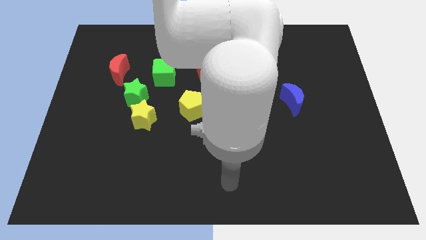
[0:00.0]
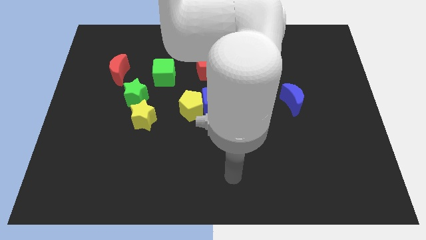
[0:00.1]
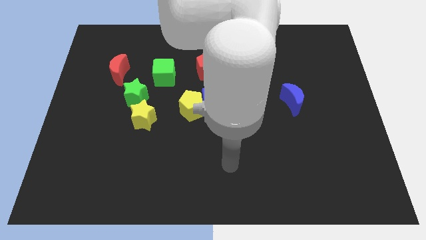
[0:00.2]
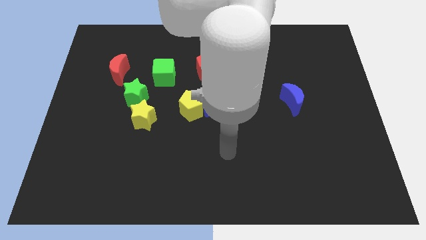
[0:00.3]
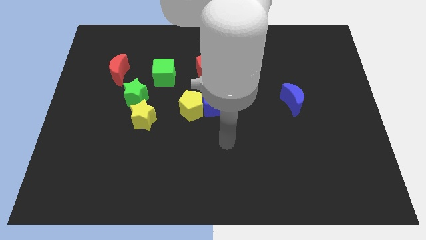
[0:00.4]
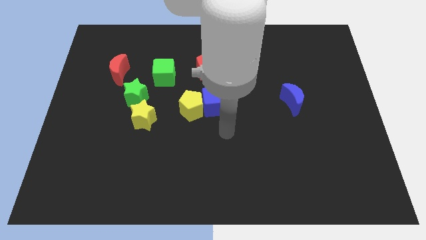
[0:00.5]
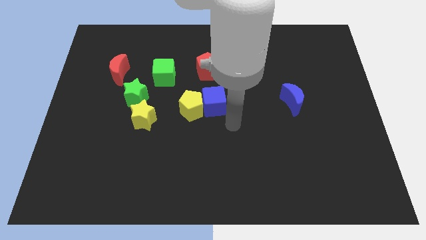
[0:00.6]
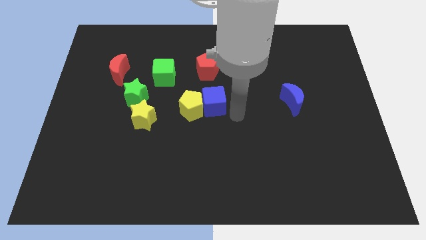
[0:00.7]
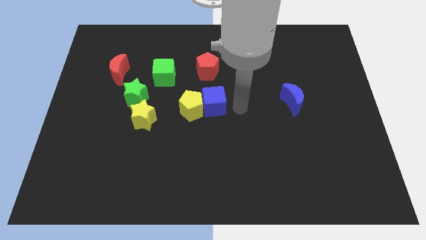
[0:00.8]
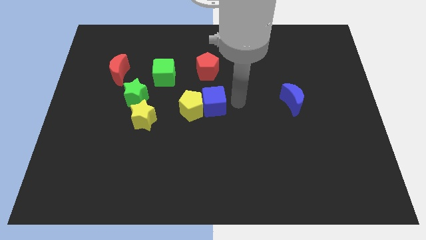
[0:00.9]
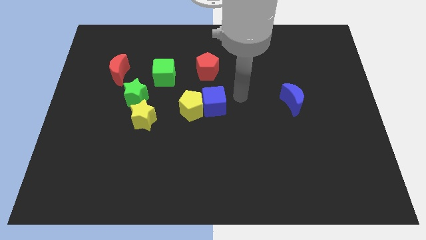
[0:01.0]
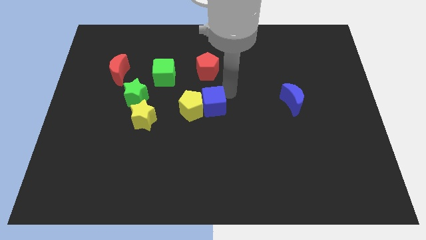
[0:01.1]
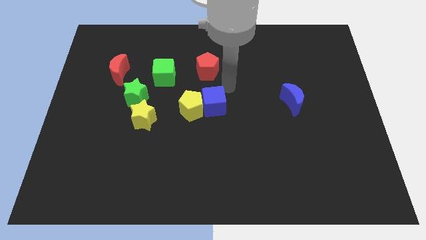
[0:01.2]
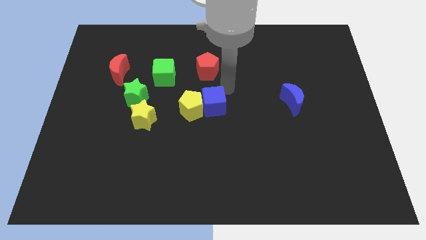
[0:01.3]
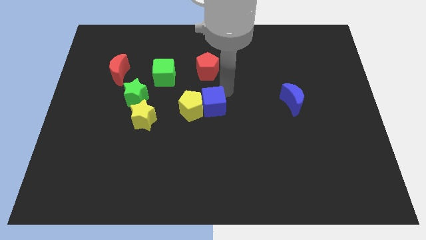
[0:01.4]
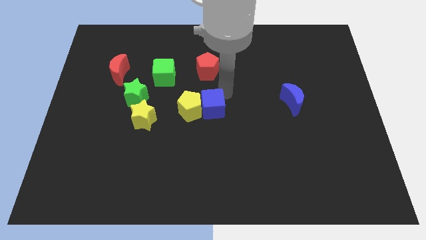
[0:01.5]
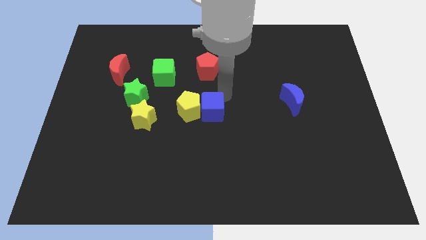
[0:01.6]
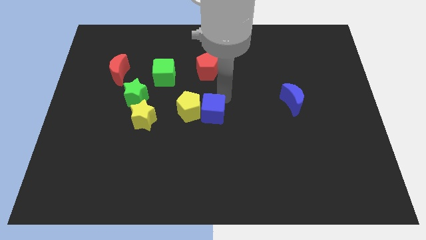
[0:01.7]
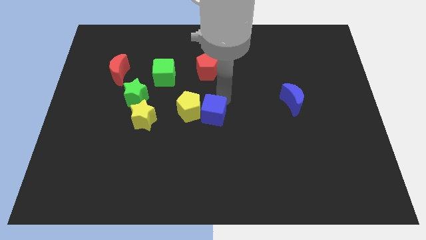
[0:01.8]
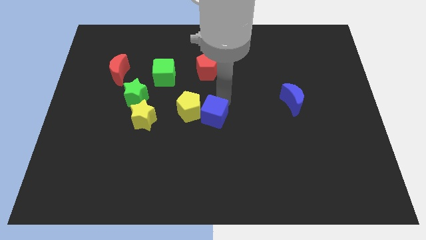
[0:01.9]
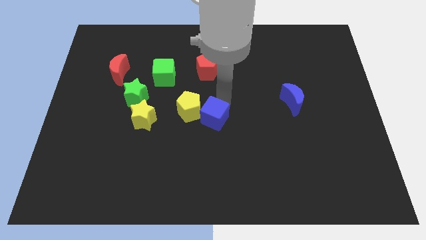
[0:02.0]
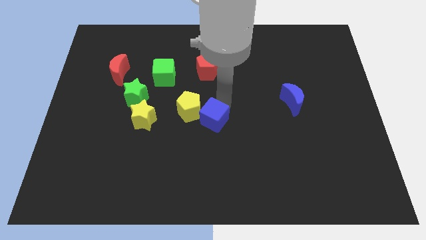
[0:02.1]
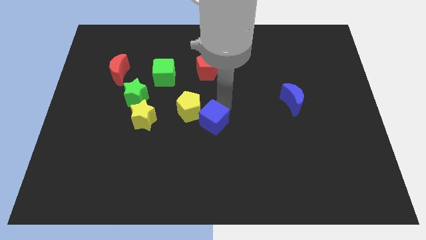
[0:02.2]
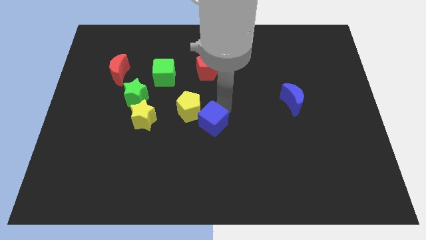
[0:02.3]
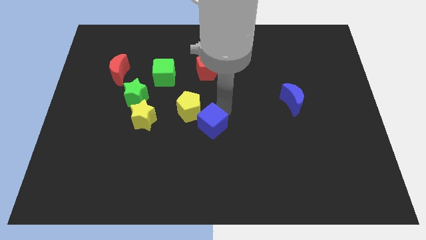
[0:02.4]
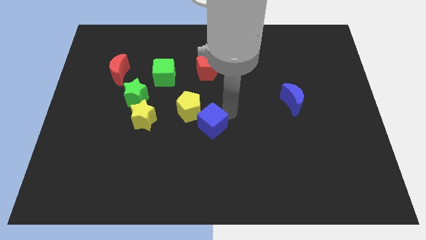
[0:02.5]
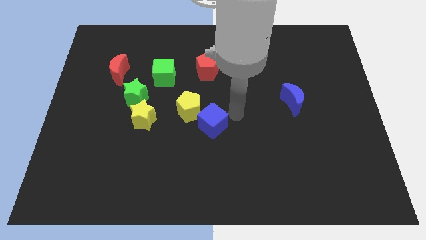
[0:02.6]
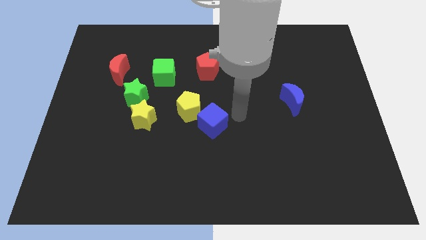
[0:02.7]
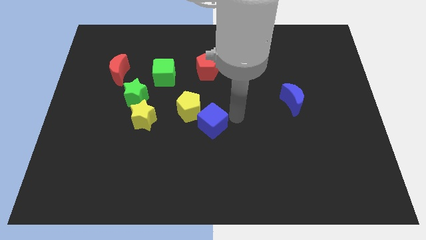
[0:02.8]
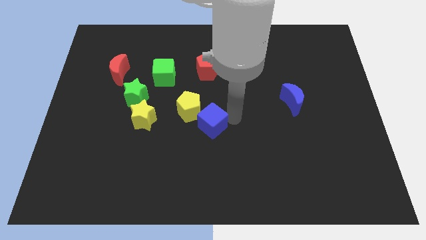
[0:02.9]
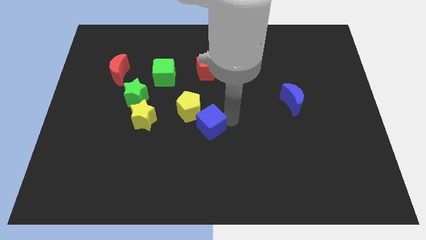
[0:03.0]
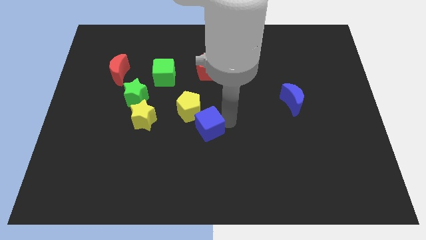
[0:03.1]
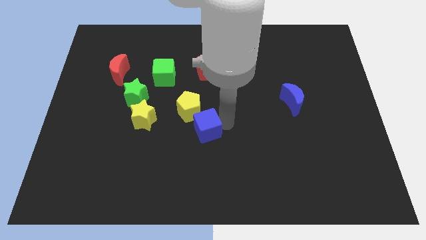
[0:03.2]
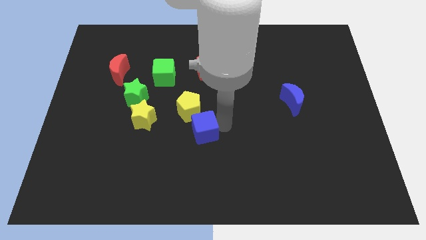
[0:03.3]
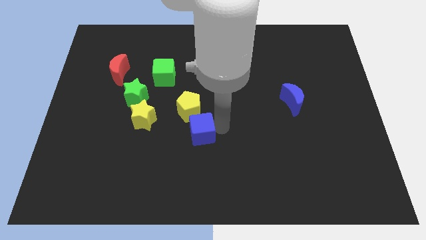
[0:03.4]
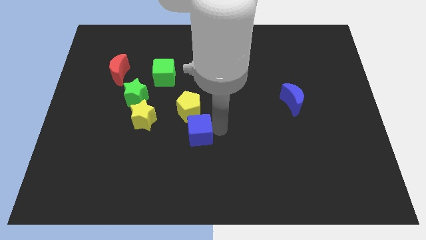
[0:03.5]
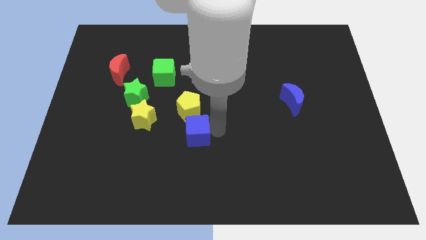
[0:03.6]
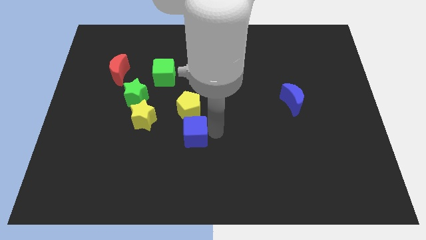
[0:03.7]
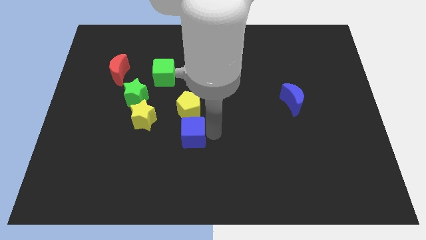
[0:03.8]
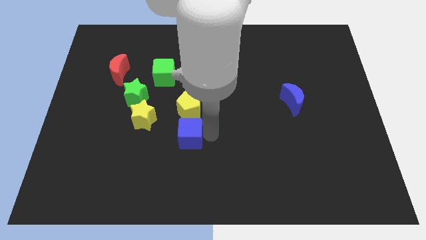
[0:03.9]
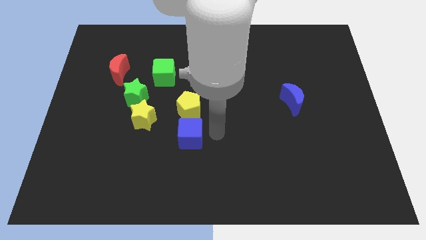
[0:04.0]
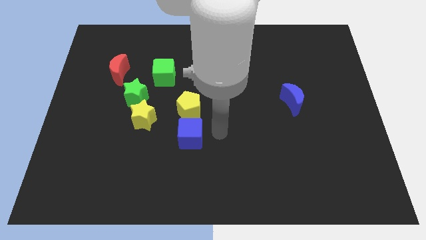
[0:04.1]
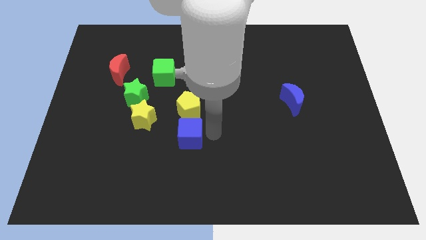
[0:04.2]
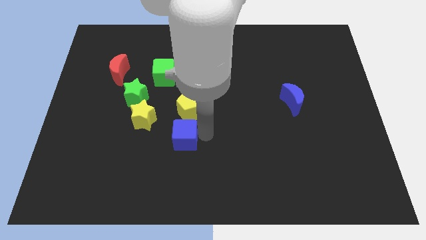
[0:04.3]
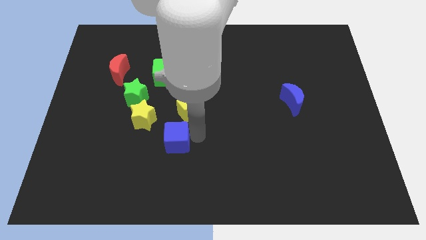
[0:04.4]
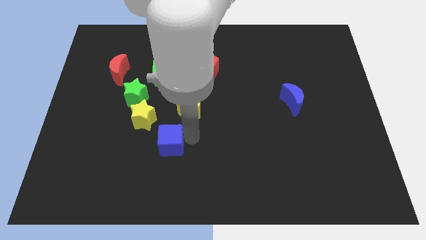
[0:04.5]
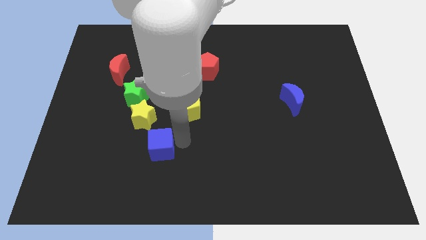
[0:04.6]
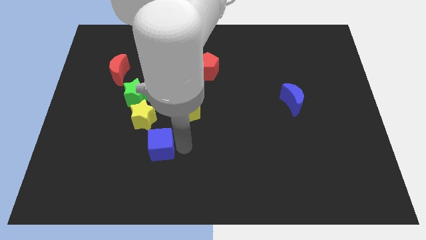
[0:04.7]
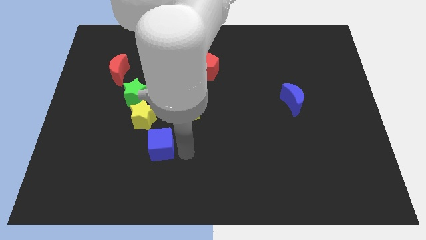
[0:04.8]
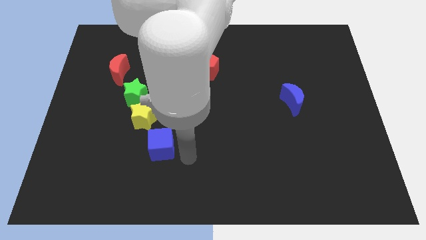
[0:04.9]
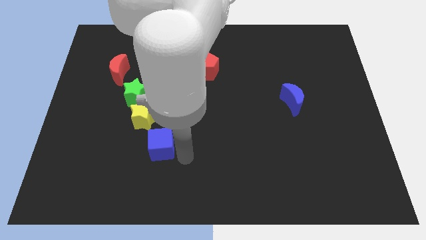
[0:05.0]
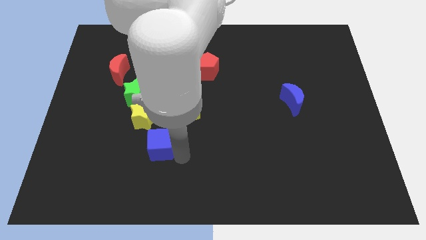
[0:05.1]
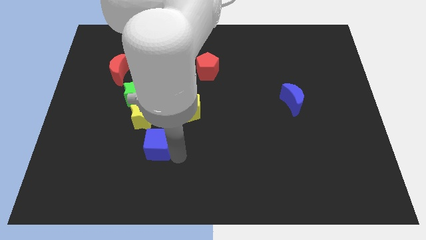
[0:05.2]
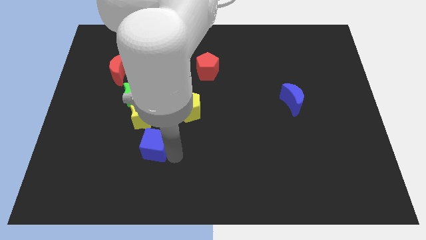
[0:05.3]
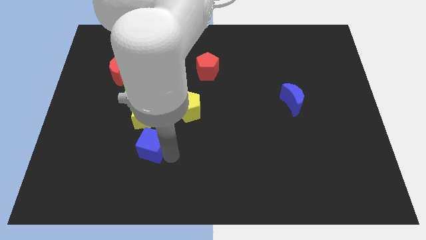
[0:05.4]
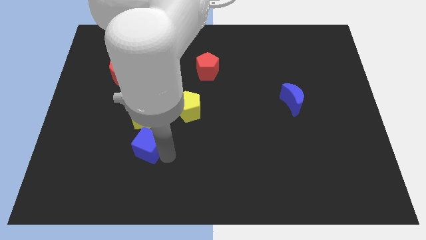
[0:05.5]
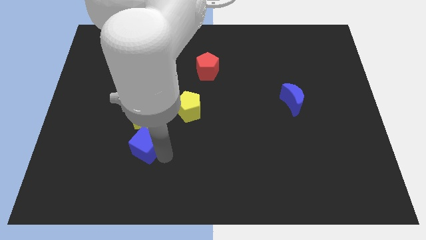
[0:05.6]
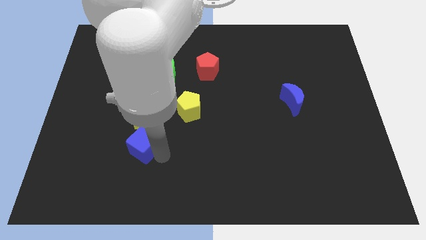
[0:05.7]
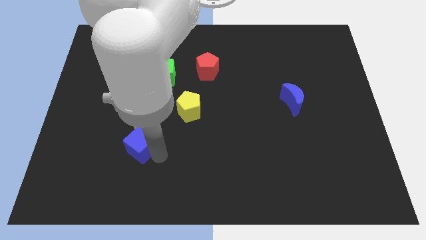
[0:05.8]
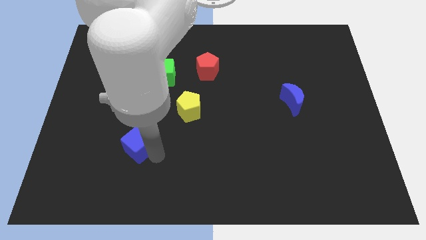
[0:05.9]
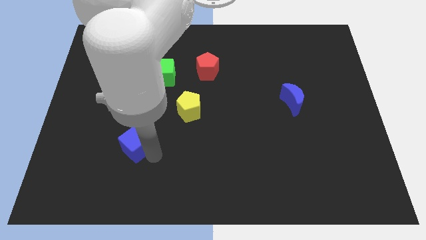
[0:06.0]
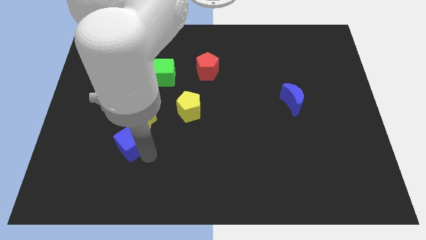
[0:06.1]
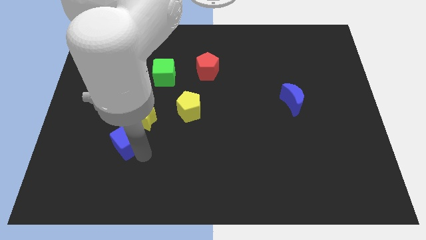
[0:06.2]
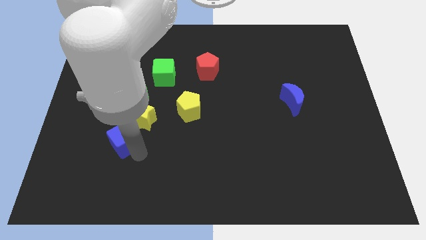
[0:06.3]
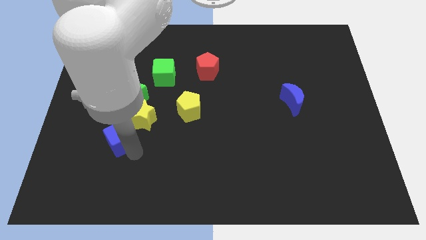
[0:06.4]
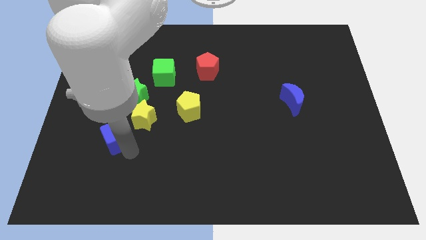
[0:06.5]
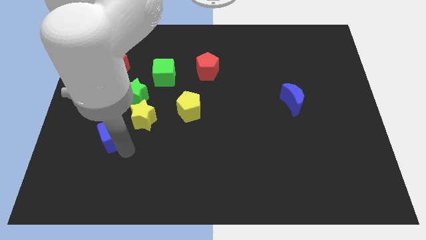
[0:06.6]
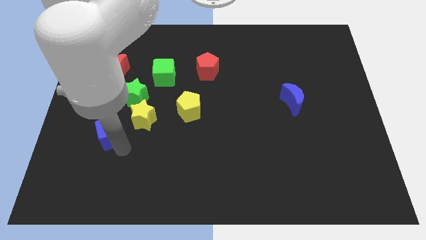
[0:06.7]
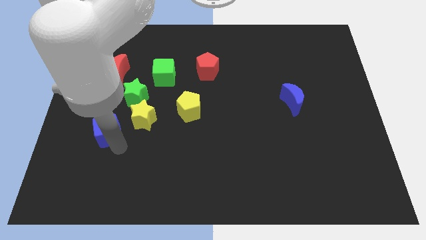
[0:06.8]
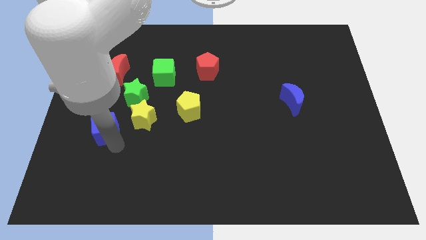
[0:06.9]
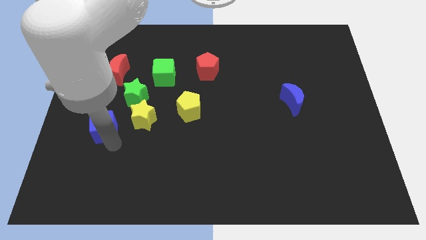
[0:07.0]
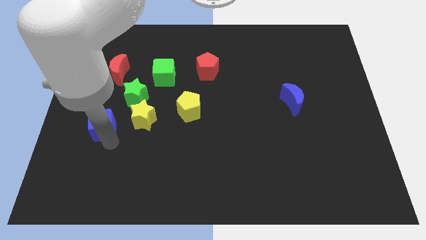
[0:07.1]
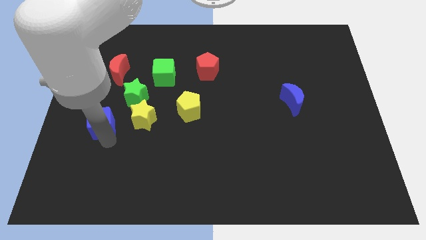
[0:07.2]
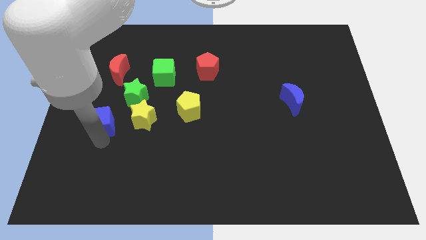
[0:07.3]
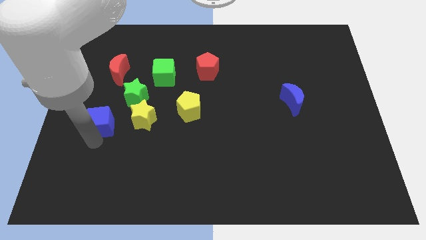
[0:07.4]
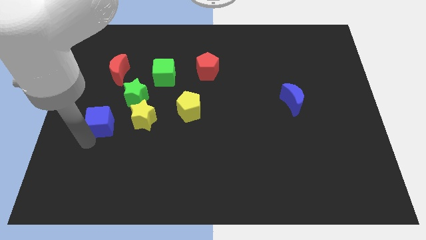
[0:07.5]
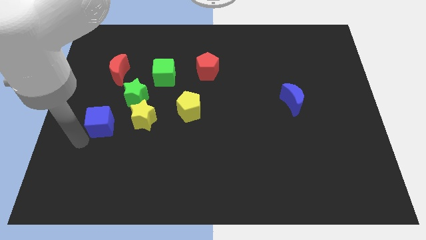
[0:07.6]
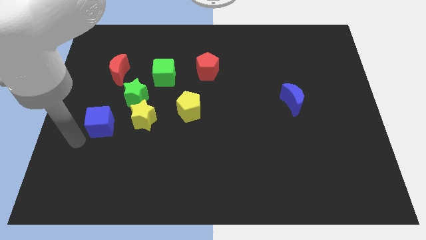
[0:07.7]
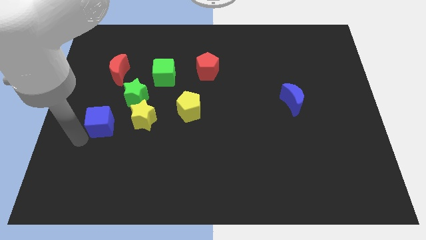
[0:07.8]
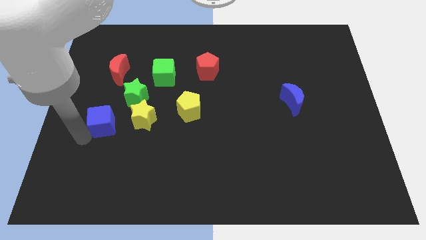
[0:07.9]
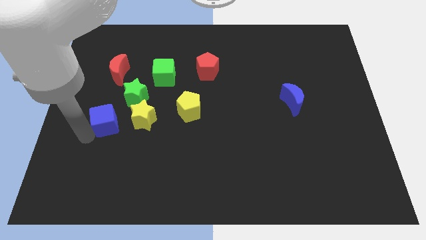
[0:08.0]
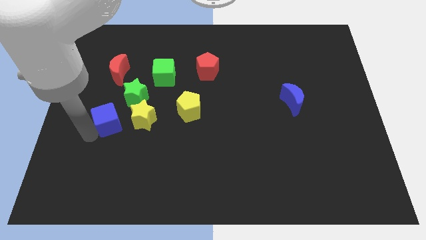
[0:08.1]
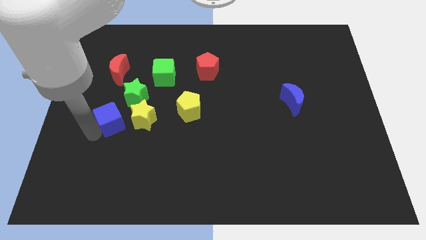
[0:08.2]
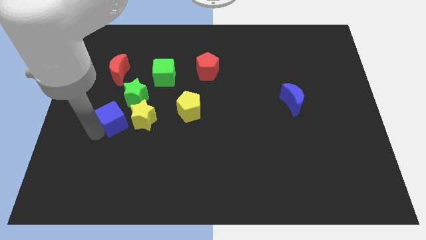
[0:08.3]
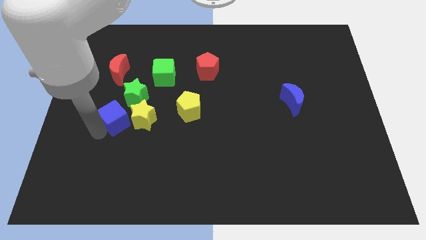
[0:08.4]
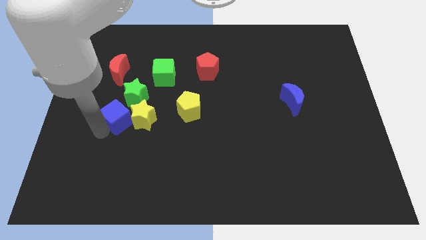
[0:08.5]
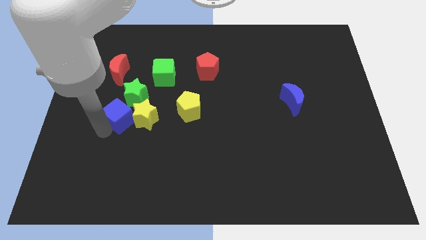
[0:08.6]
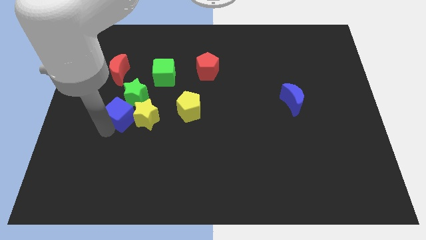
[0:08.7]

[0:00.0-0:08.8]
slide the blue cube to the left of the yellow pentagon
